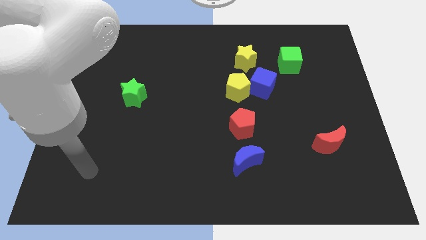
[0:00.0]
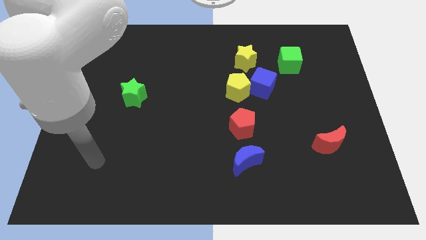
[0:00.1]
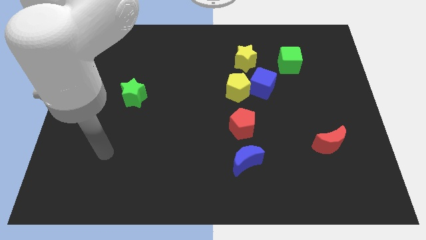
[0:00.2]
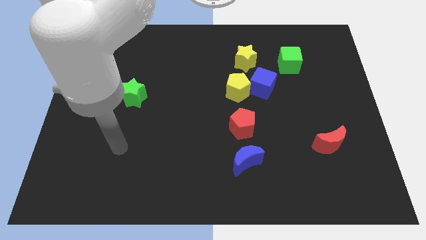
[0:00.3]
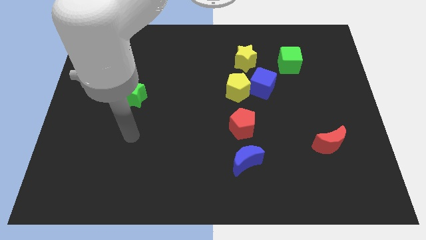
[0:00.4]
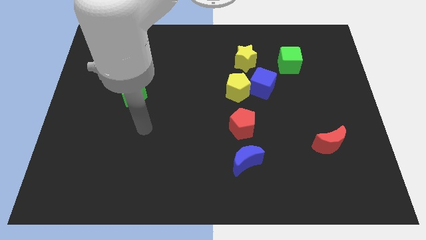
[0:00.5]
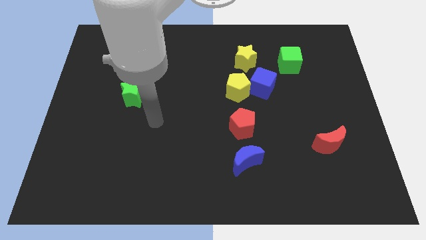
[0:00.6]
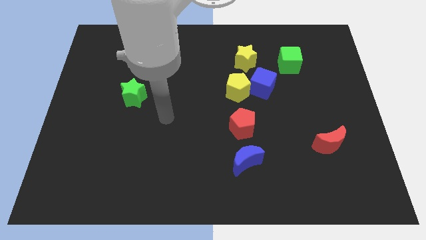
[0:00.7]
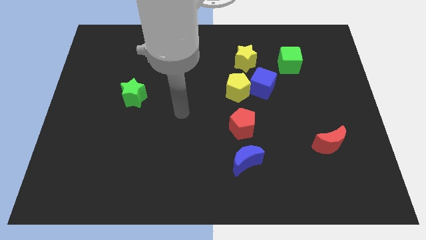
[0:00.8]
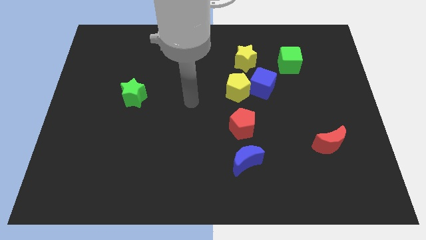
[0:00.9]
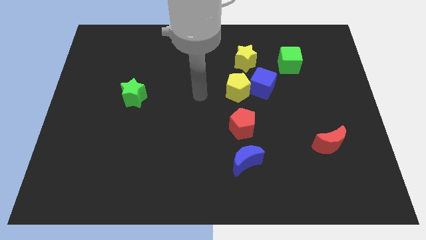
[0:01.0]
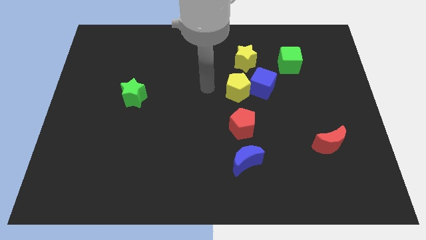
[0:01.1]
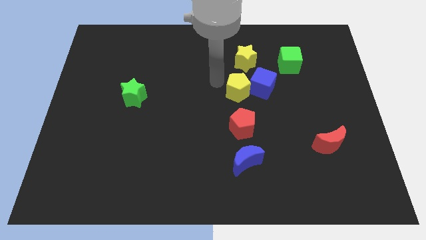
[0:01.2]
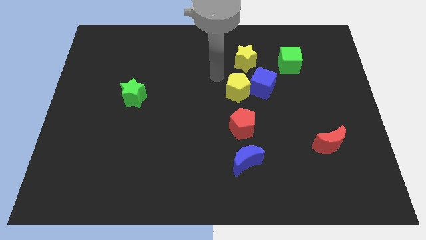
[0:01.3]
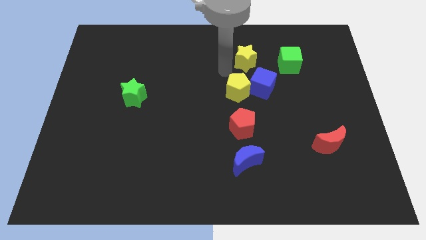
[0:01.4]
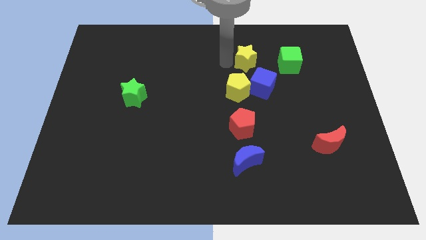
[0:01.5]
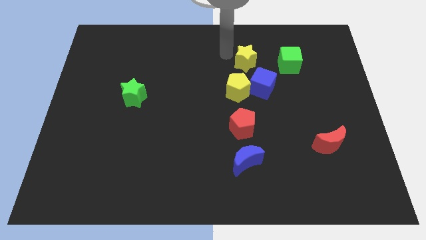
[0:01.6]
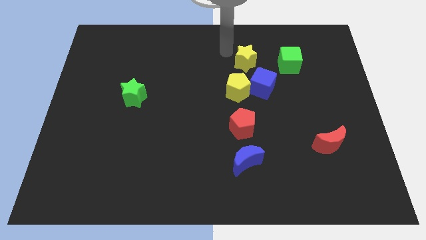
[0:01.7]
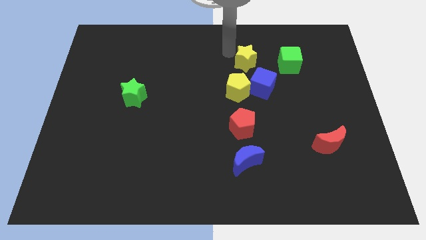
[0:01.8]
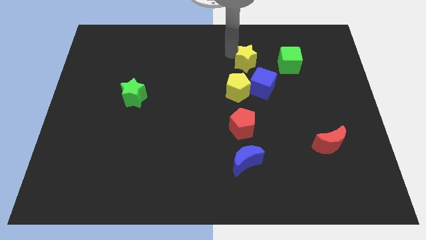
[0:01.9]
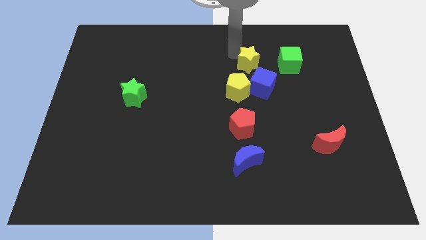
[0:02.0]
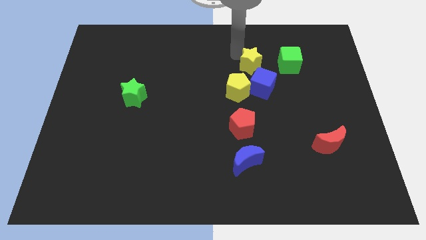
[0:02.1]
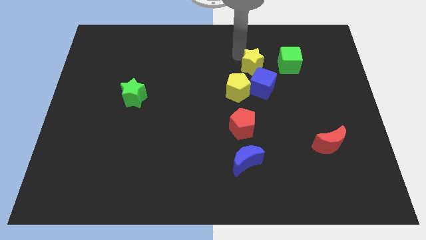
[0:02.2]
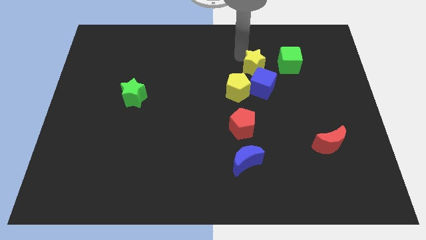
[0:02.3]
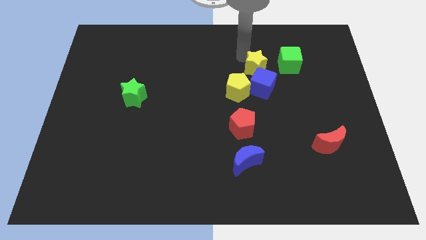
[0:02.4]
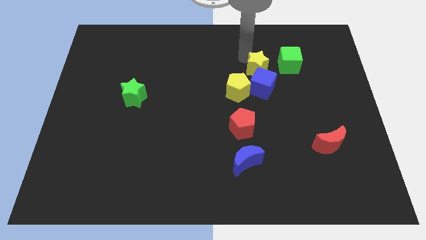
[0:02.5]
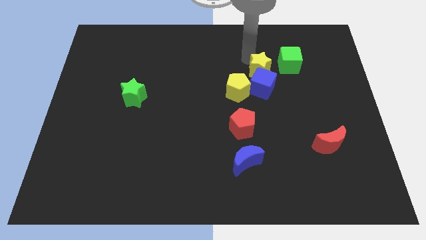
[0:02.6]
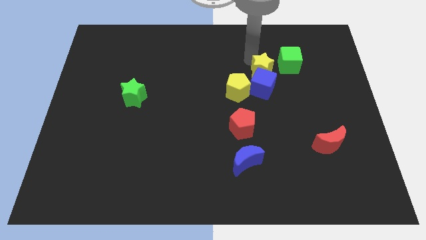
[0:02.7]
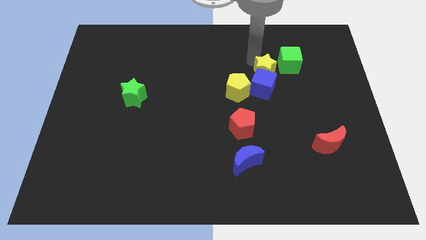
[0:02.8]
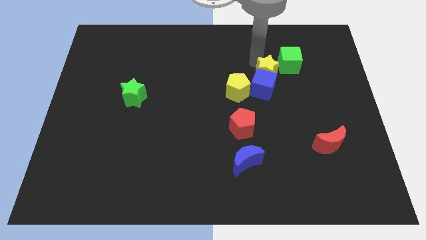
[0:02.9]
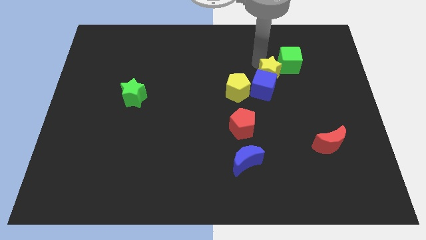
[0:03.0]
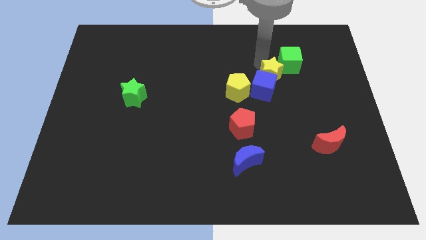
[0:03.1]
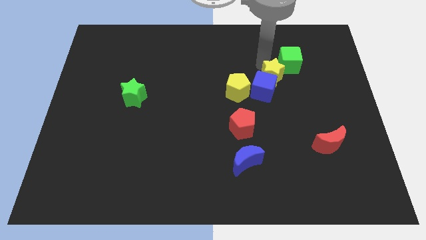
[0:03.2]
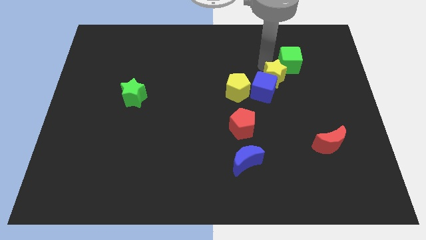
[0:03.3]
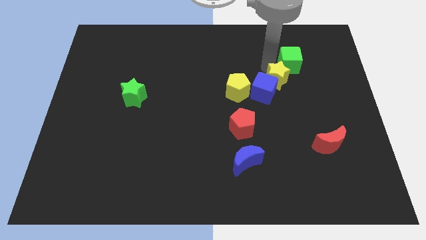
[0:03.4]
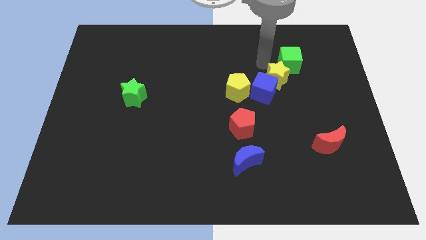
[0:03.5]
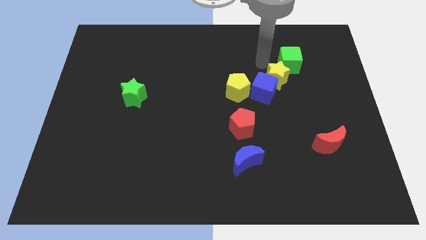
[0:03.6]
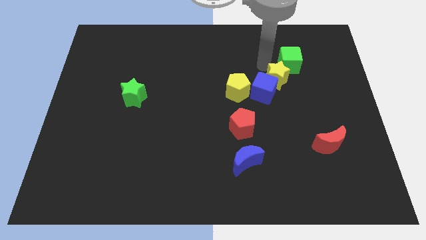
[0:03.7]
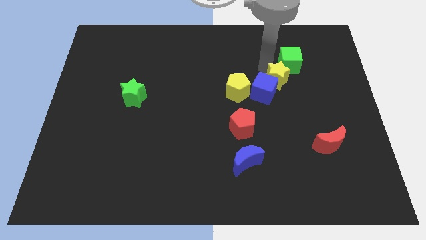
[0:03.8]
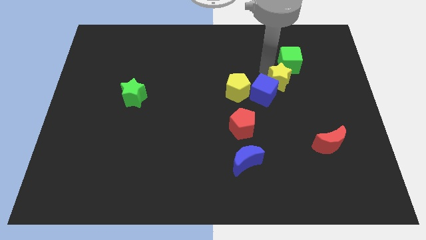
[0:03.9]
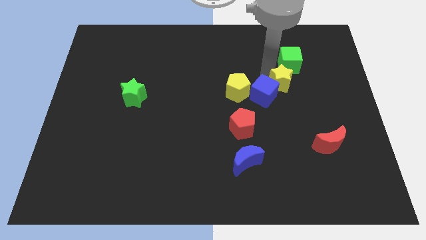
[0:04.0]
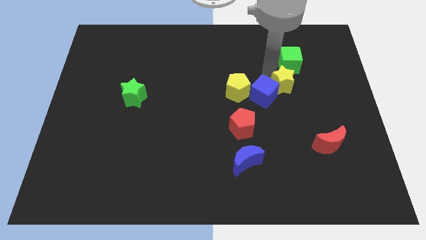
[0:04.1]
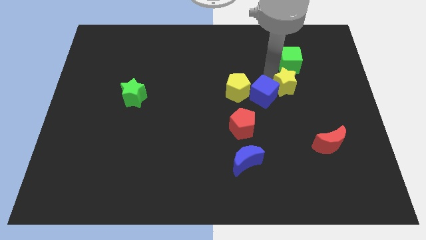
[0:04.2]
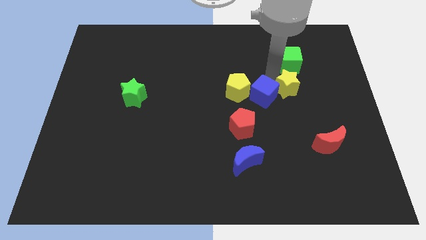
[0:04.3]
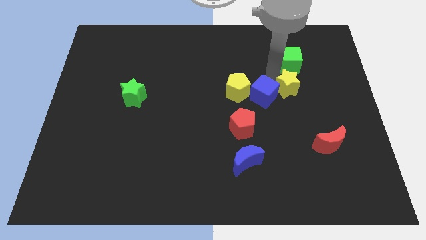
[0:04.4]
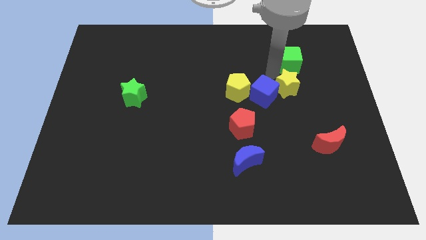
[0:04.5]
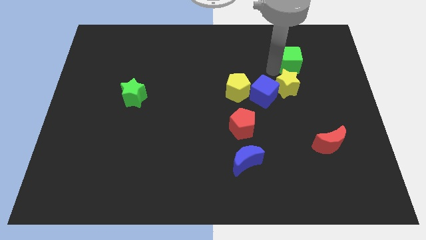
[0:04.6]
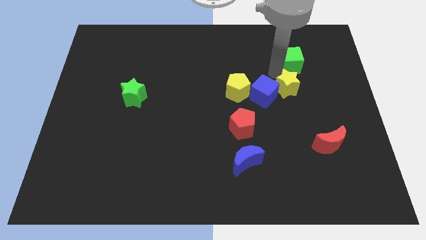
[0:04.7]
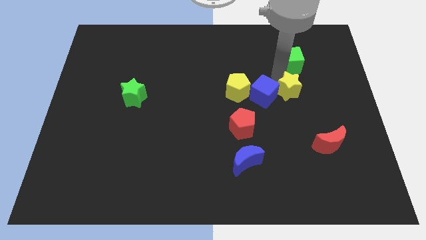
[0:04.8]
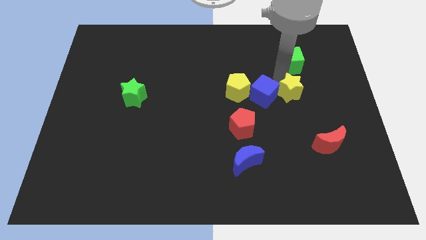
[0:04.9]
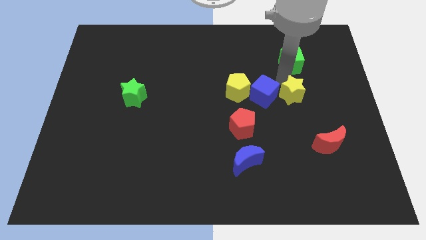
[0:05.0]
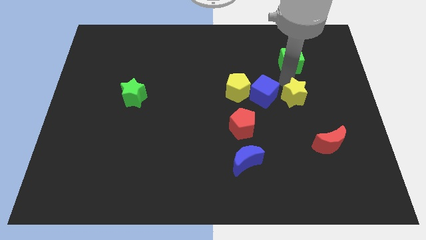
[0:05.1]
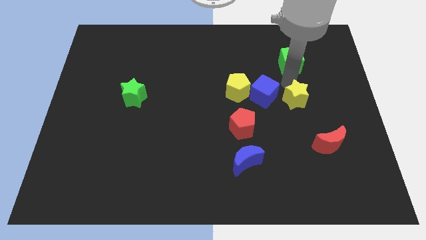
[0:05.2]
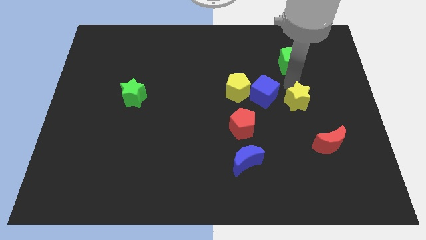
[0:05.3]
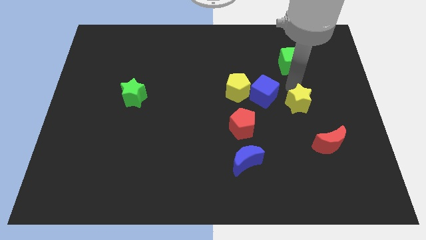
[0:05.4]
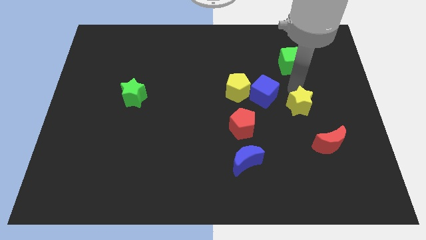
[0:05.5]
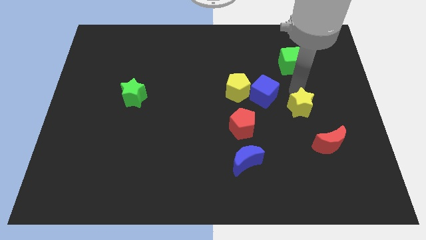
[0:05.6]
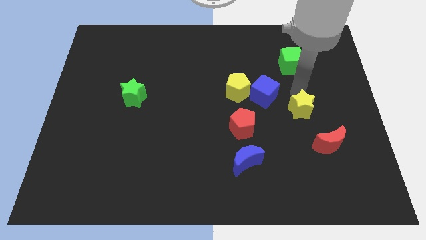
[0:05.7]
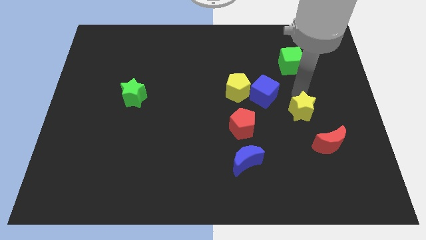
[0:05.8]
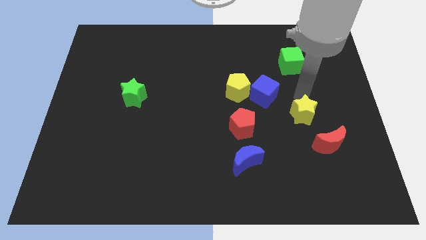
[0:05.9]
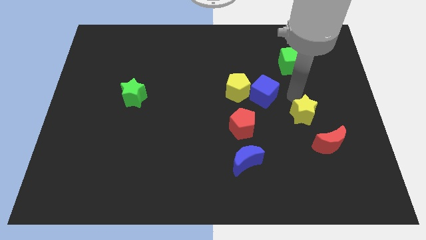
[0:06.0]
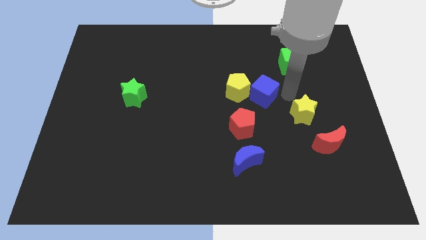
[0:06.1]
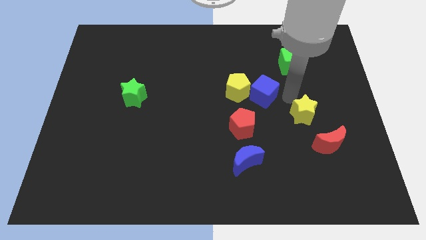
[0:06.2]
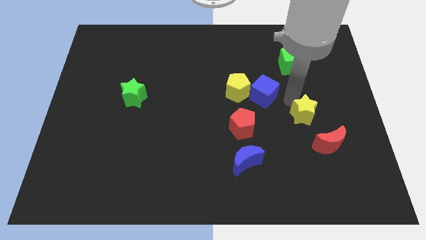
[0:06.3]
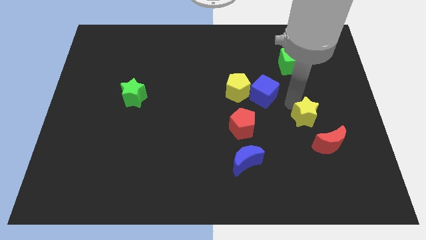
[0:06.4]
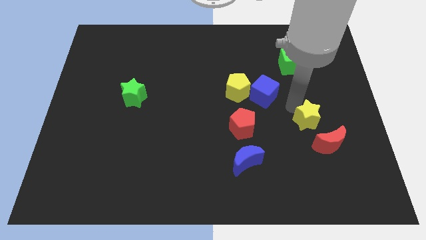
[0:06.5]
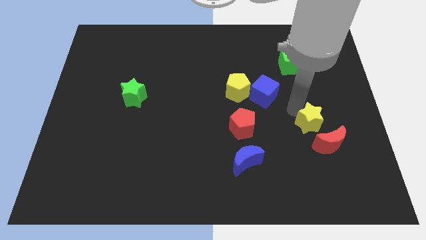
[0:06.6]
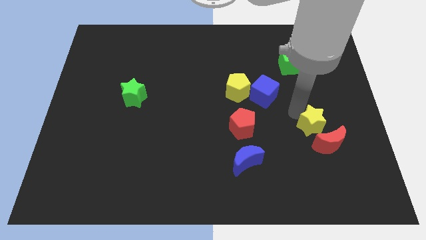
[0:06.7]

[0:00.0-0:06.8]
push the yellow star towards the red moon

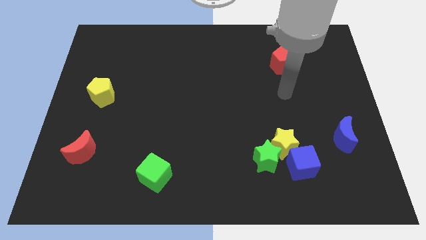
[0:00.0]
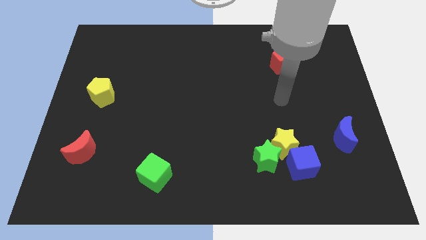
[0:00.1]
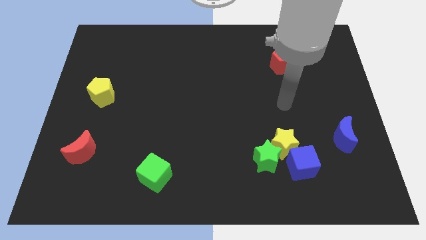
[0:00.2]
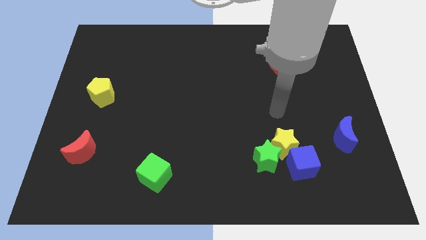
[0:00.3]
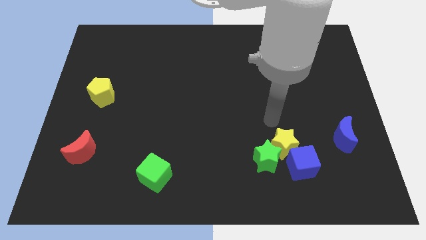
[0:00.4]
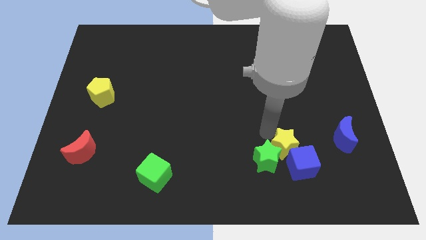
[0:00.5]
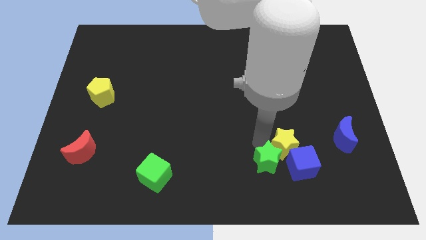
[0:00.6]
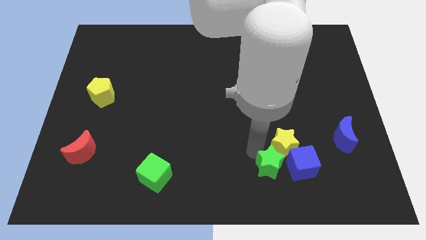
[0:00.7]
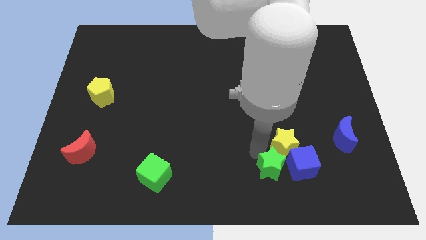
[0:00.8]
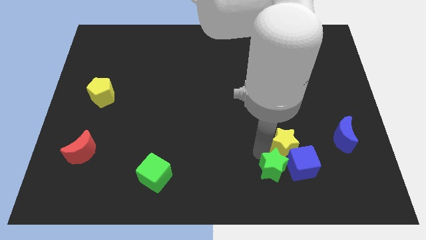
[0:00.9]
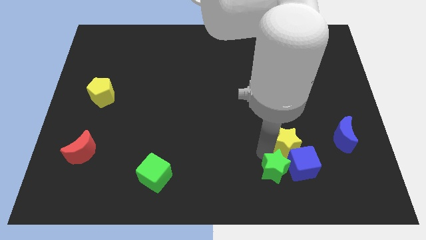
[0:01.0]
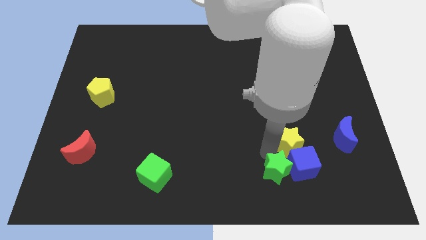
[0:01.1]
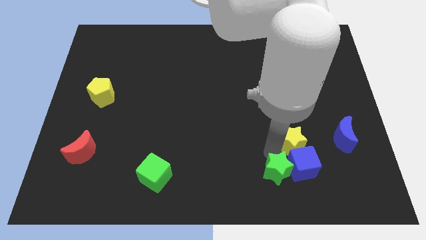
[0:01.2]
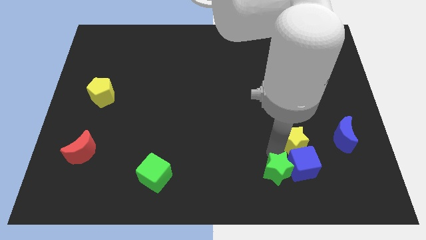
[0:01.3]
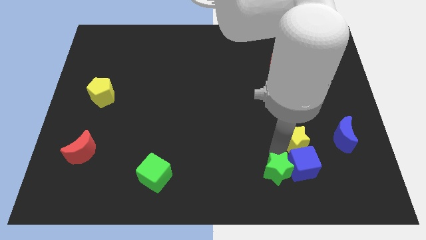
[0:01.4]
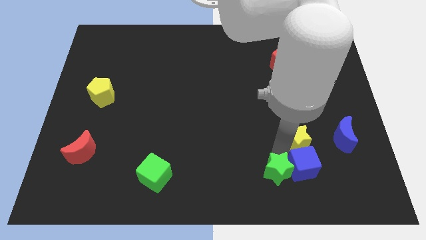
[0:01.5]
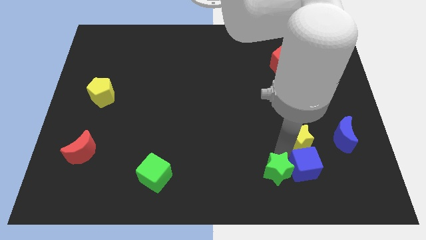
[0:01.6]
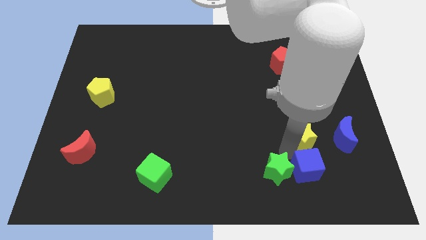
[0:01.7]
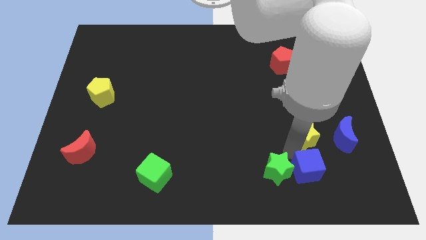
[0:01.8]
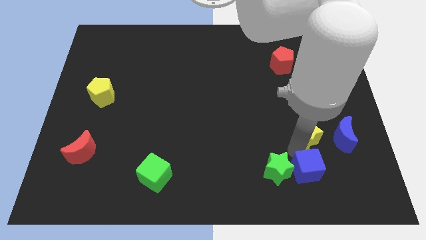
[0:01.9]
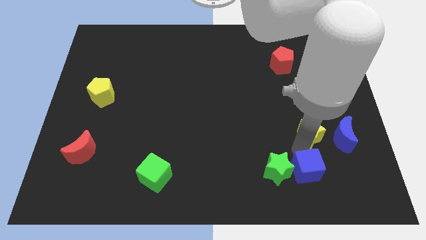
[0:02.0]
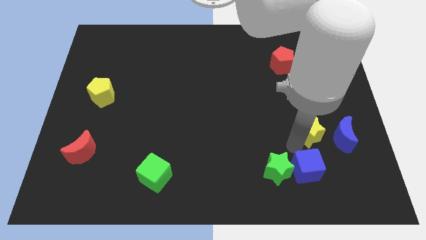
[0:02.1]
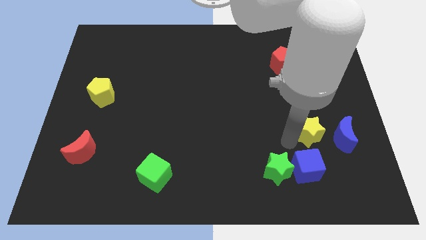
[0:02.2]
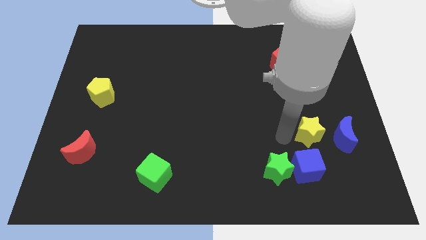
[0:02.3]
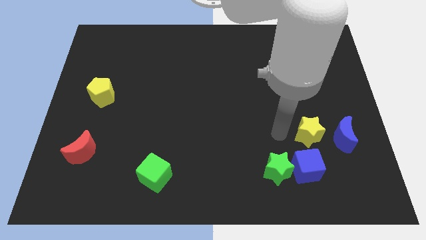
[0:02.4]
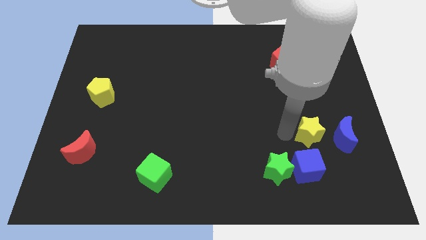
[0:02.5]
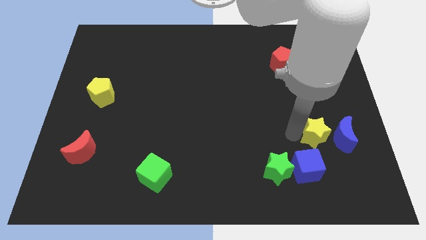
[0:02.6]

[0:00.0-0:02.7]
slide the yellow star close to the blue moon
